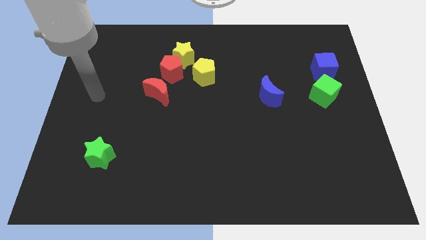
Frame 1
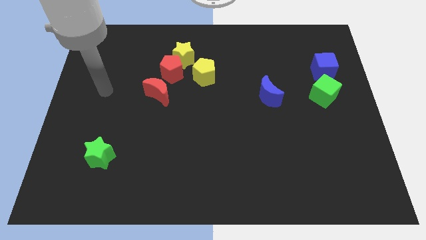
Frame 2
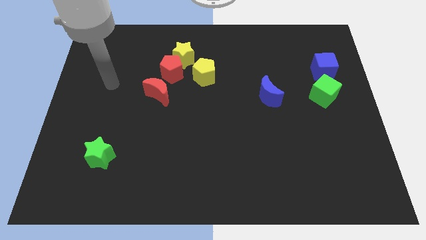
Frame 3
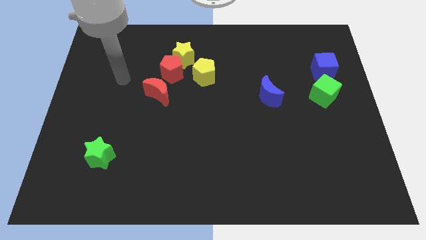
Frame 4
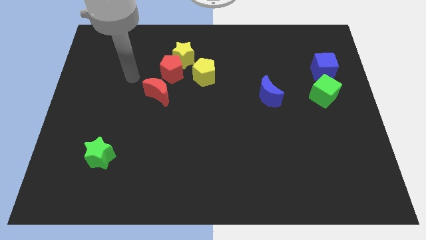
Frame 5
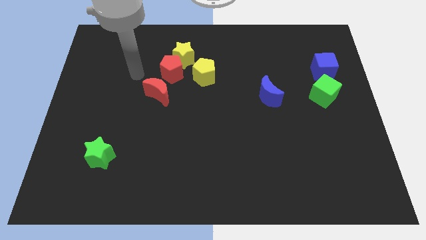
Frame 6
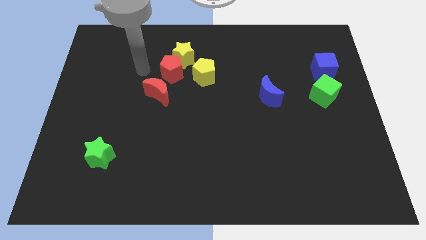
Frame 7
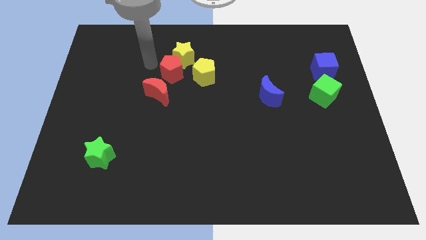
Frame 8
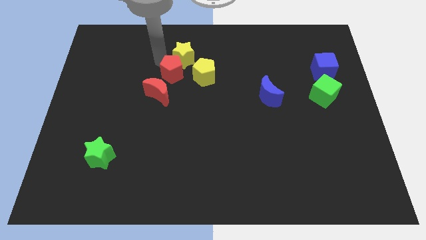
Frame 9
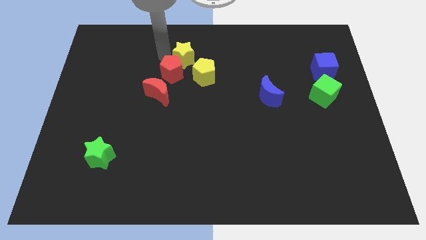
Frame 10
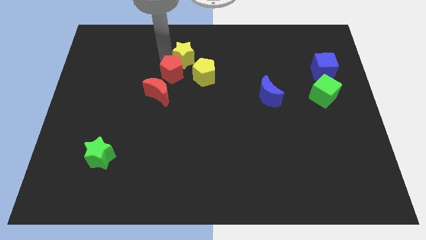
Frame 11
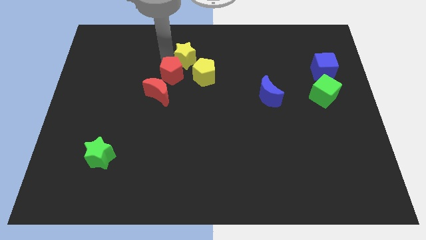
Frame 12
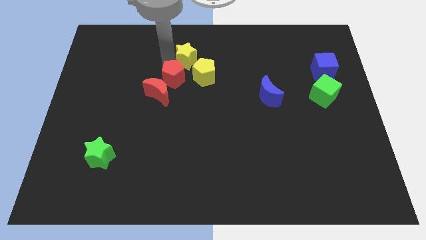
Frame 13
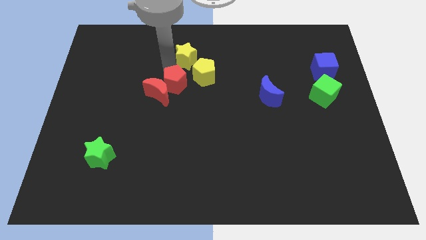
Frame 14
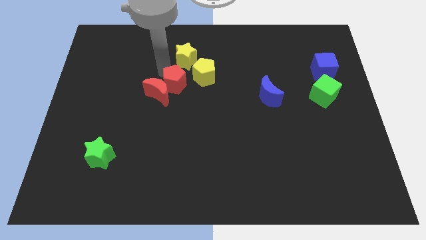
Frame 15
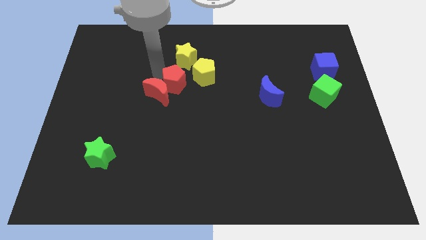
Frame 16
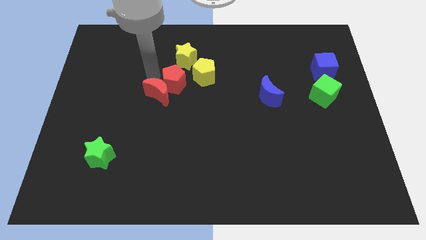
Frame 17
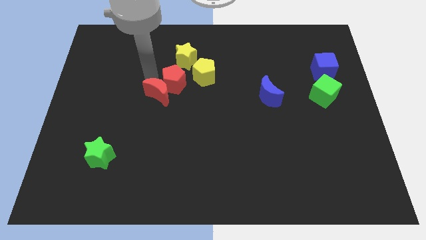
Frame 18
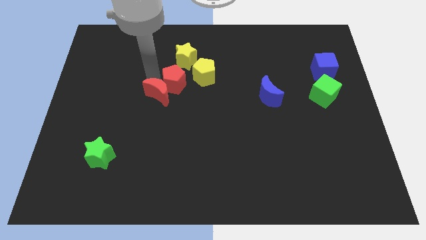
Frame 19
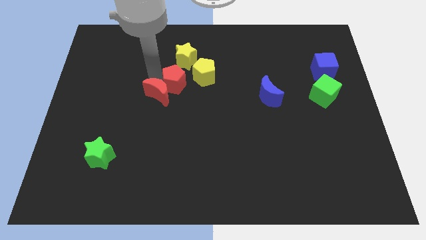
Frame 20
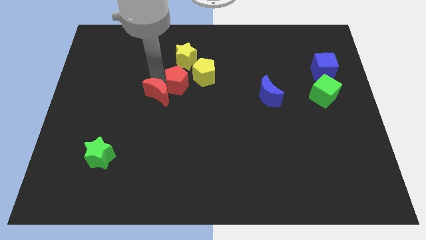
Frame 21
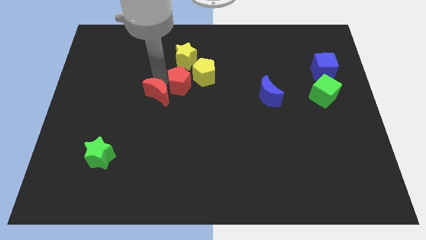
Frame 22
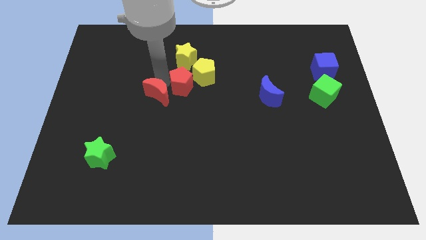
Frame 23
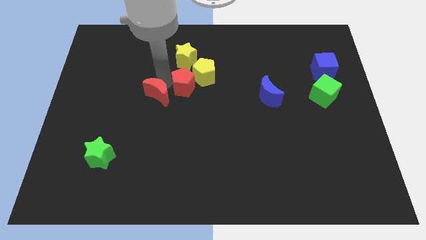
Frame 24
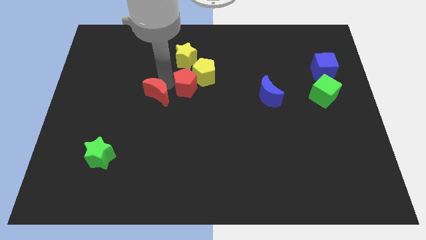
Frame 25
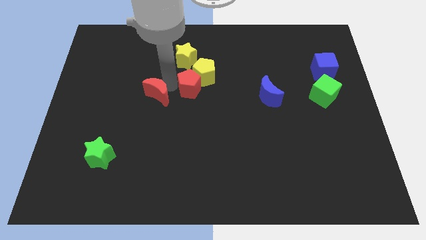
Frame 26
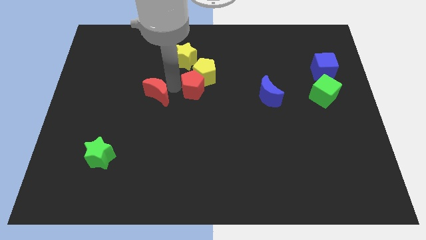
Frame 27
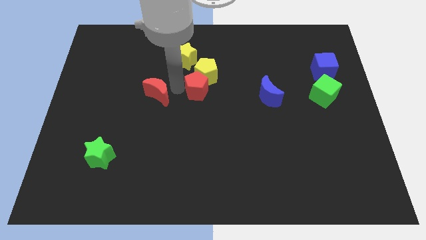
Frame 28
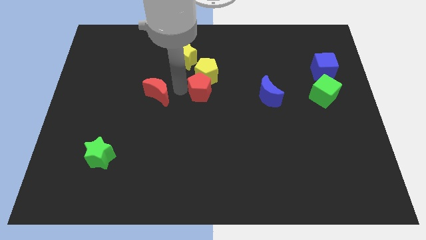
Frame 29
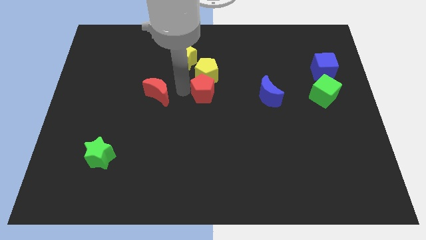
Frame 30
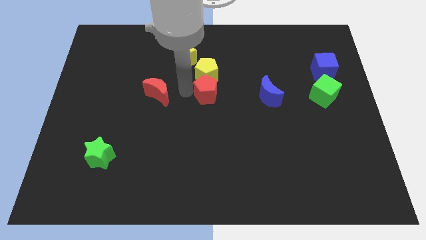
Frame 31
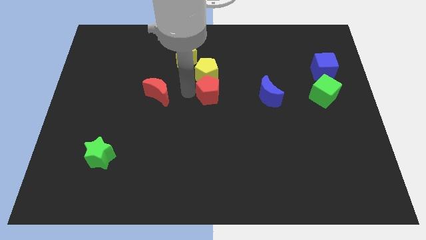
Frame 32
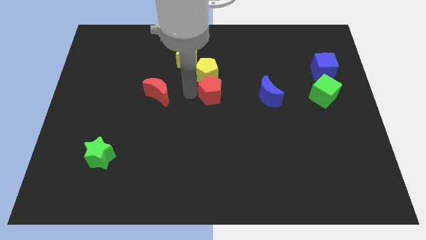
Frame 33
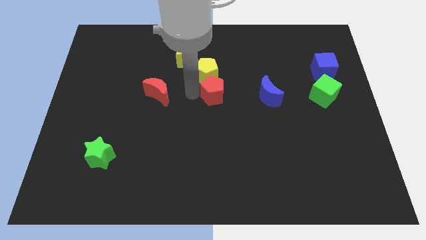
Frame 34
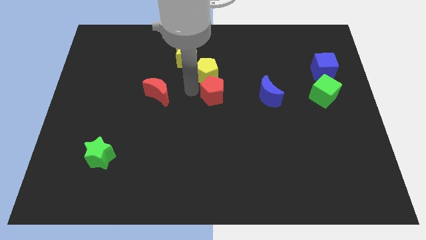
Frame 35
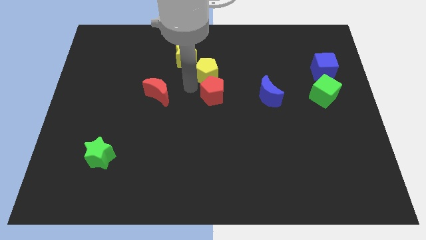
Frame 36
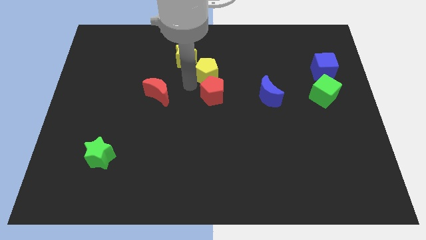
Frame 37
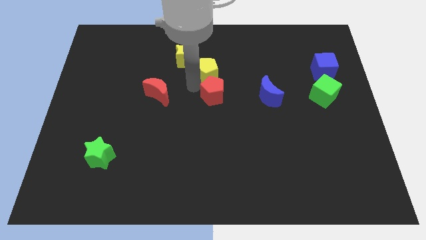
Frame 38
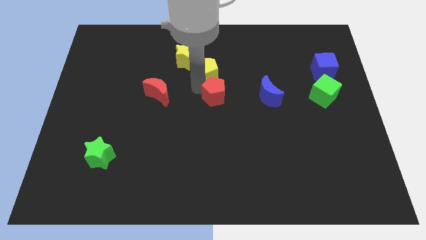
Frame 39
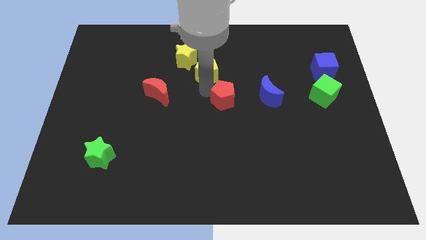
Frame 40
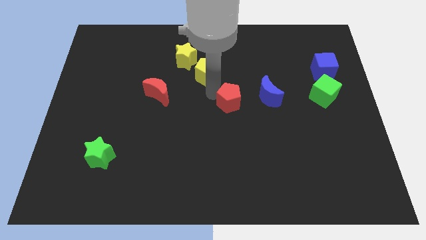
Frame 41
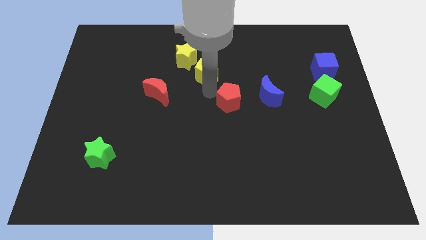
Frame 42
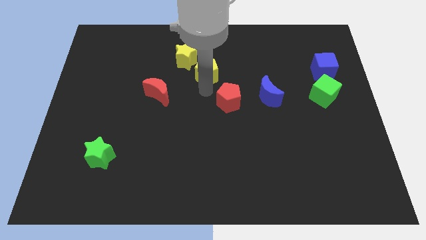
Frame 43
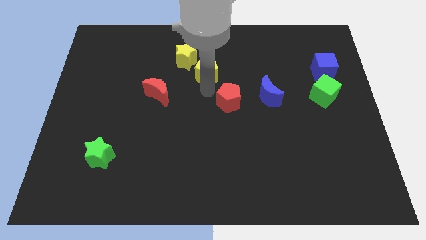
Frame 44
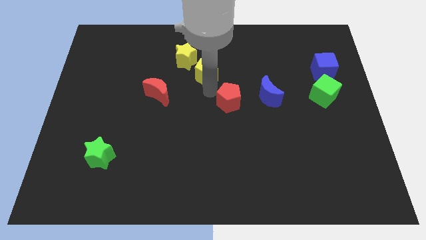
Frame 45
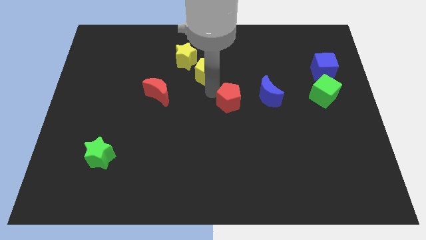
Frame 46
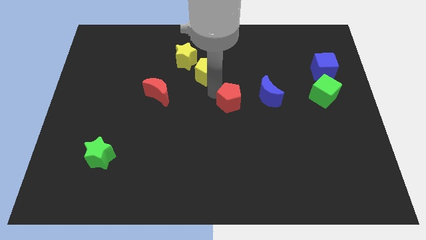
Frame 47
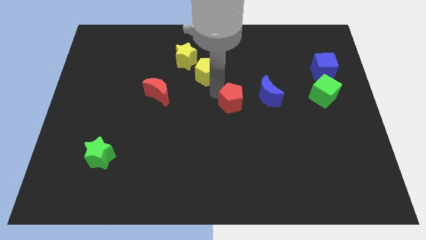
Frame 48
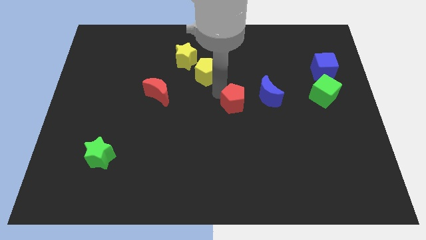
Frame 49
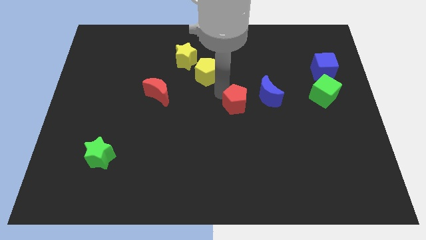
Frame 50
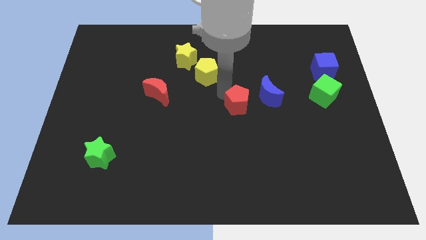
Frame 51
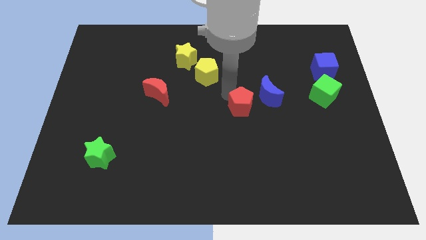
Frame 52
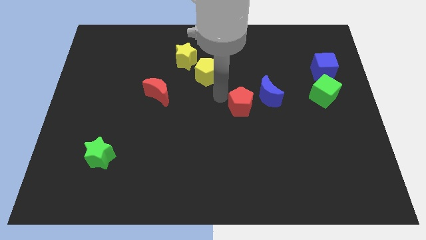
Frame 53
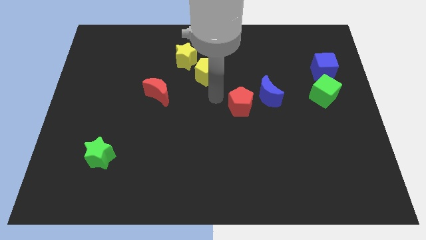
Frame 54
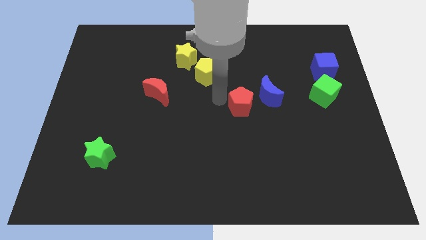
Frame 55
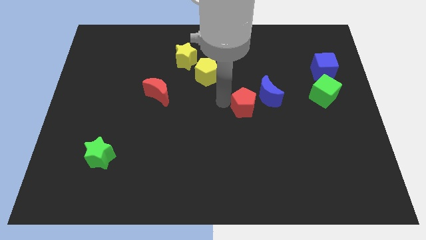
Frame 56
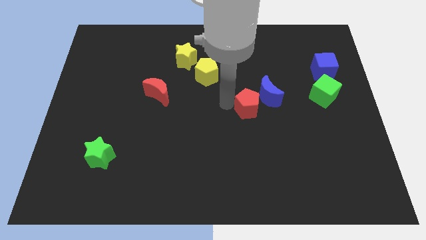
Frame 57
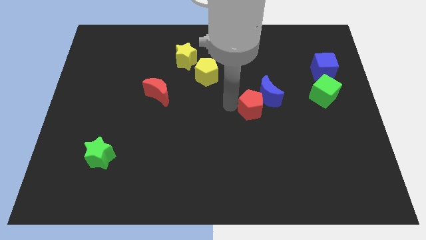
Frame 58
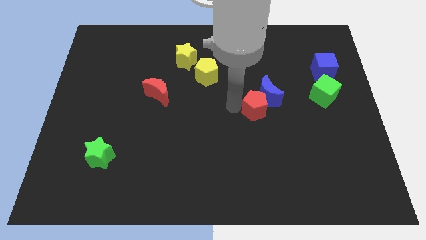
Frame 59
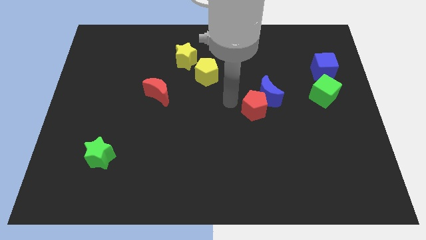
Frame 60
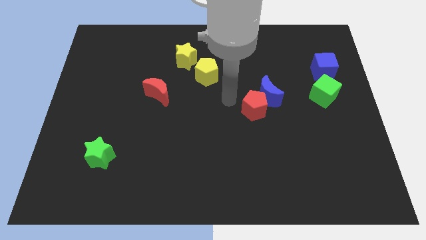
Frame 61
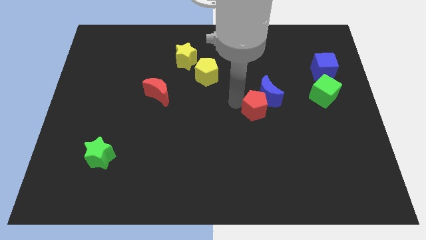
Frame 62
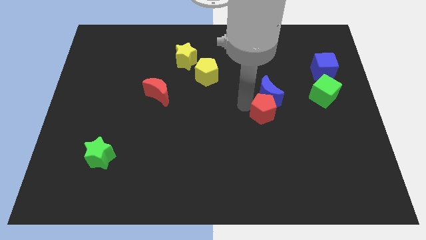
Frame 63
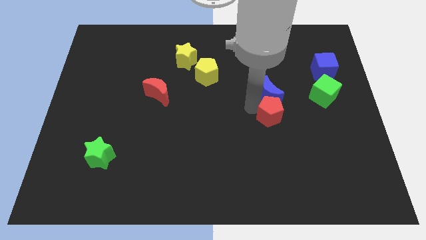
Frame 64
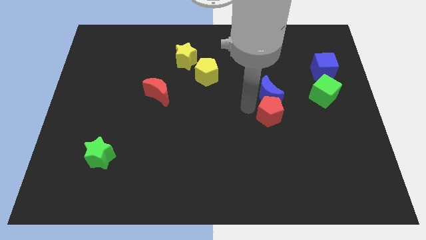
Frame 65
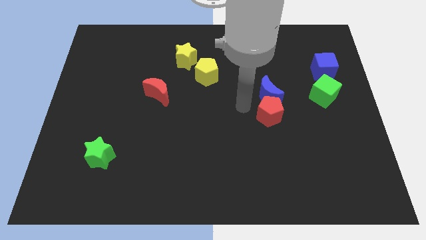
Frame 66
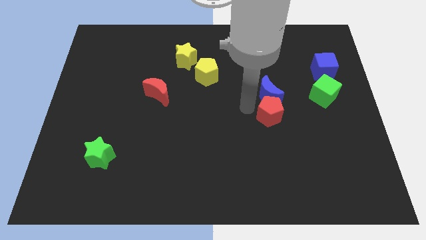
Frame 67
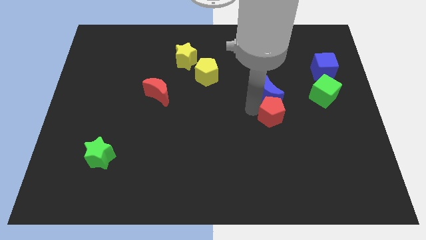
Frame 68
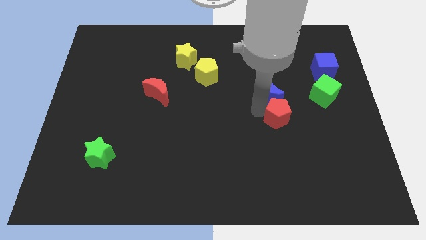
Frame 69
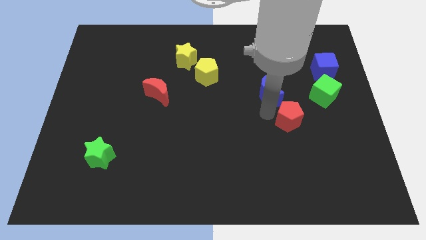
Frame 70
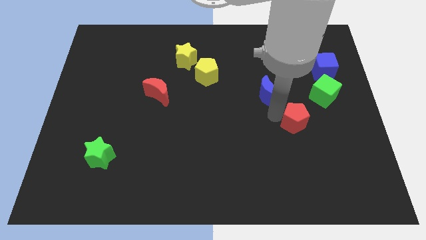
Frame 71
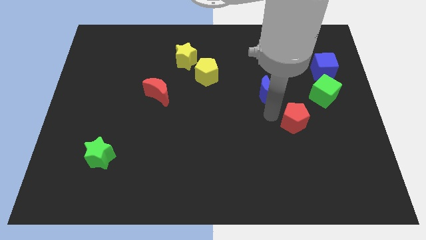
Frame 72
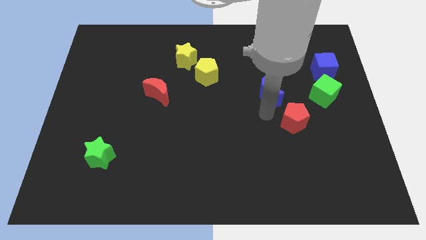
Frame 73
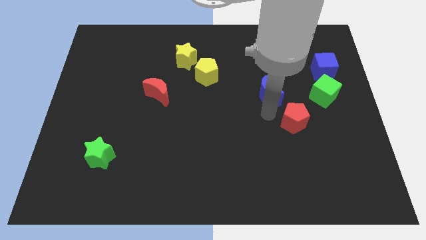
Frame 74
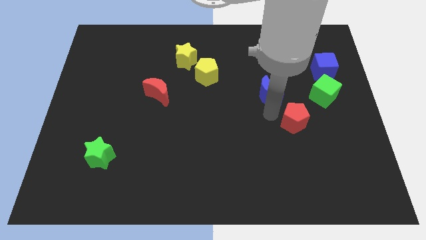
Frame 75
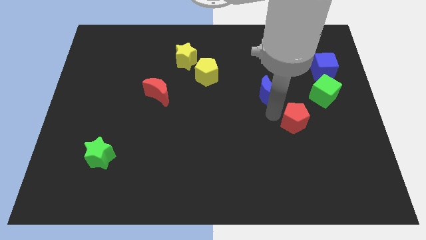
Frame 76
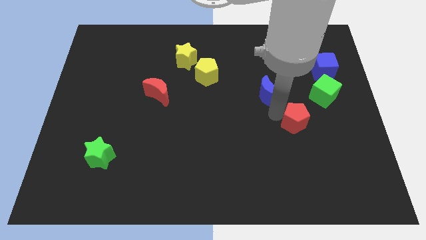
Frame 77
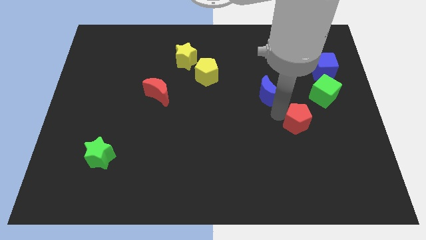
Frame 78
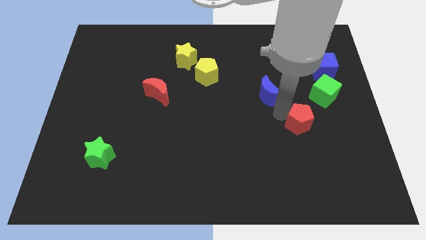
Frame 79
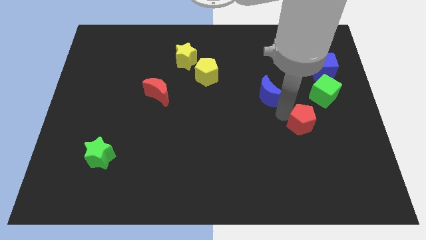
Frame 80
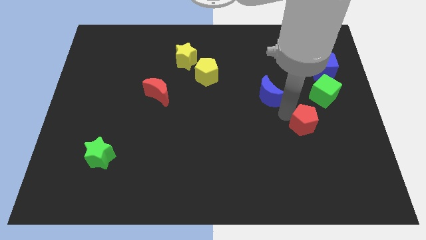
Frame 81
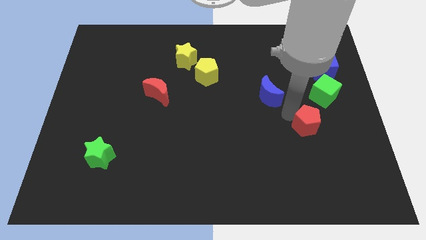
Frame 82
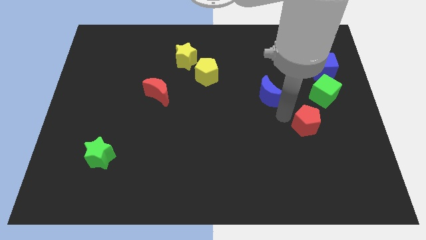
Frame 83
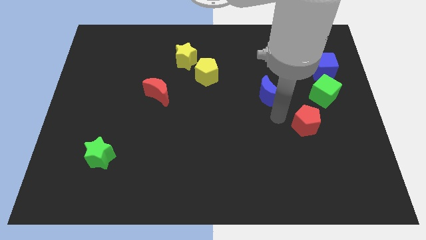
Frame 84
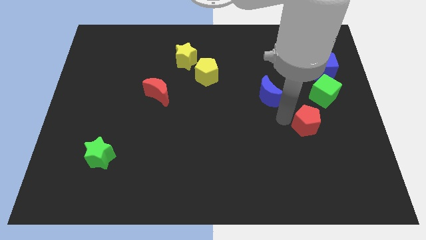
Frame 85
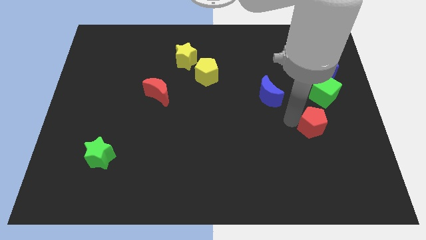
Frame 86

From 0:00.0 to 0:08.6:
slide the red pentagon to the bottom side of the green cube
